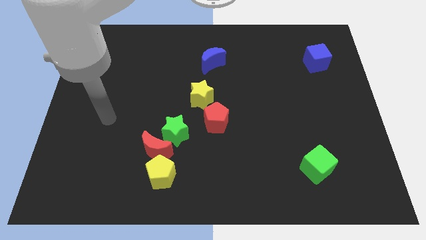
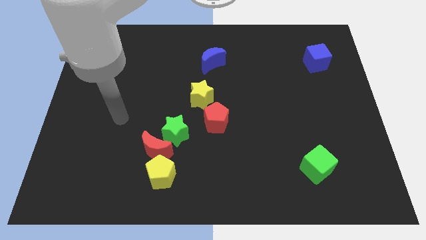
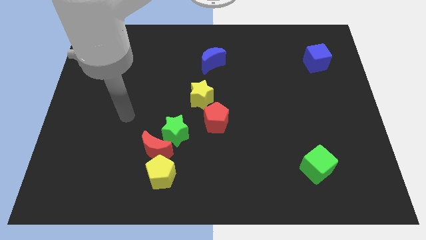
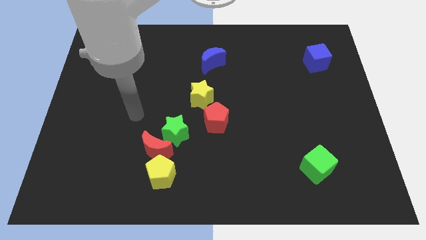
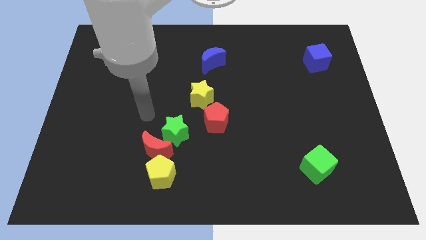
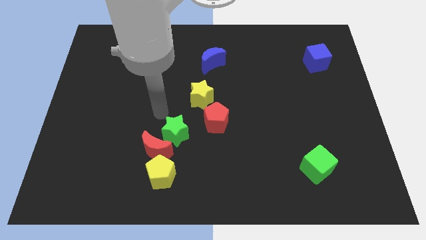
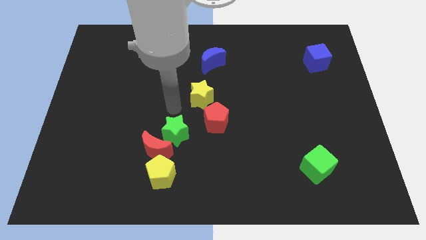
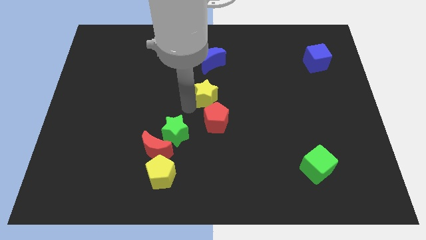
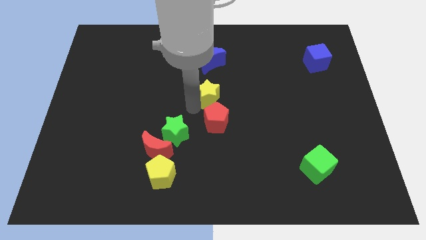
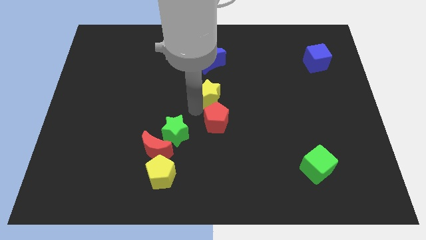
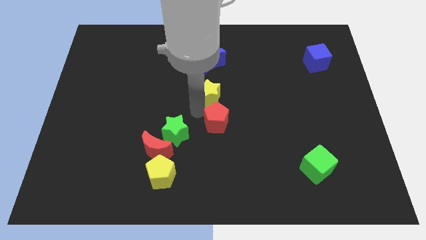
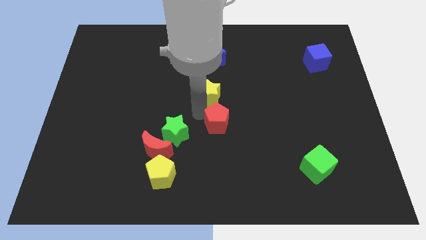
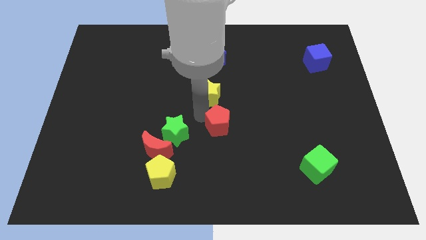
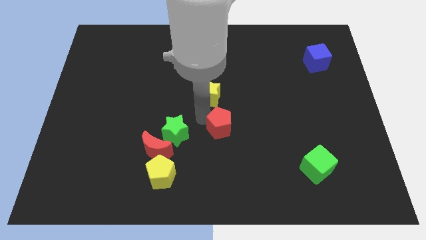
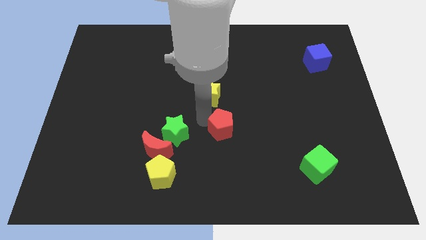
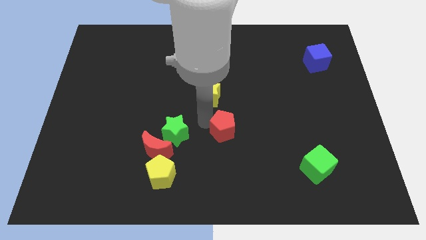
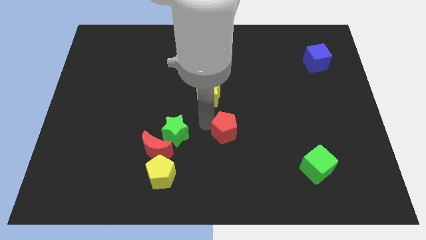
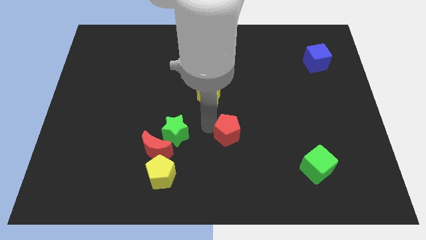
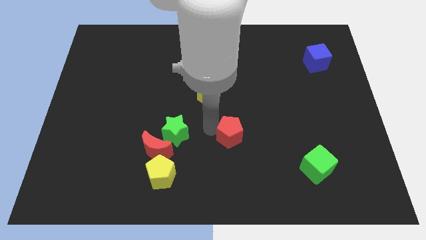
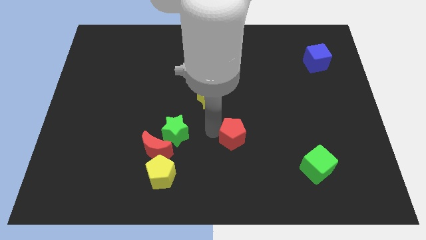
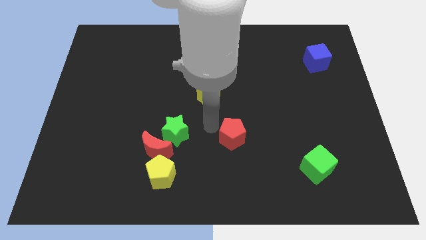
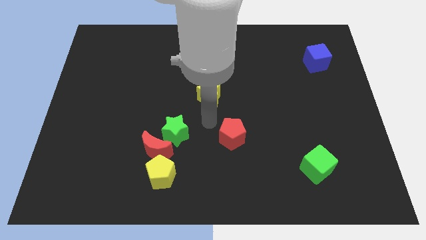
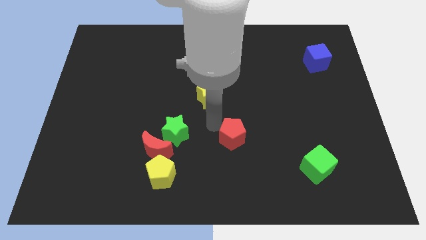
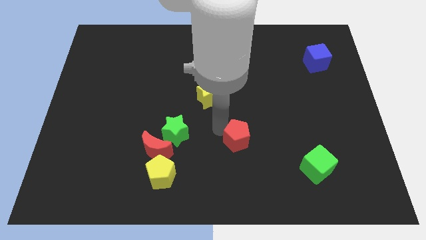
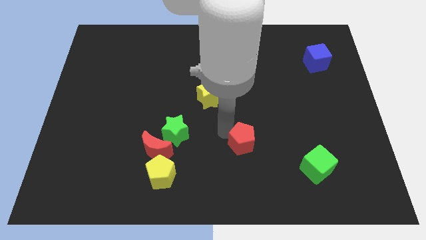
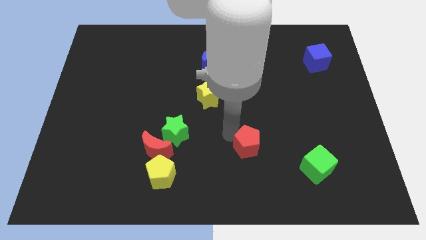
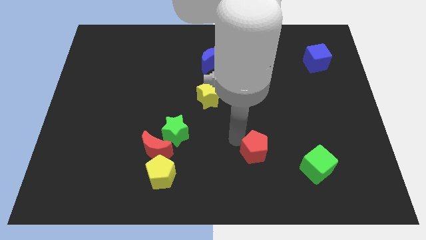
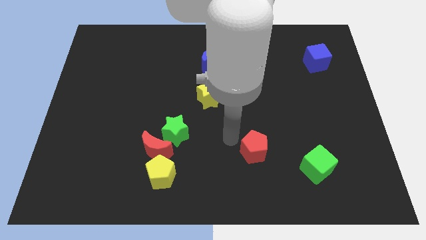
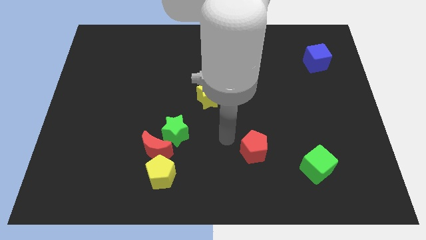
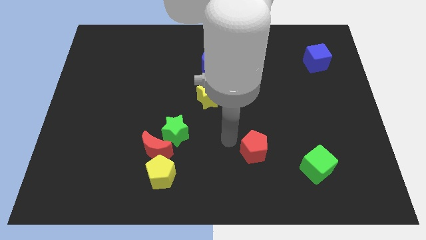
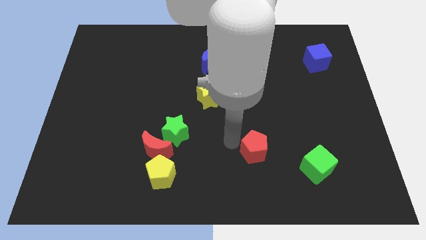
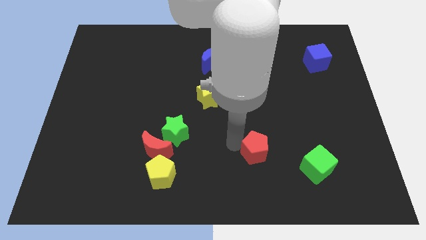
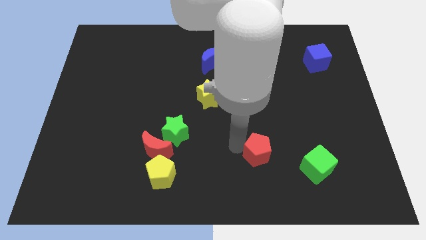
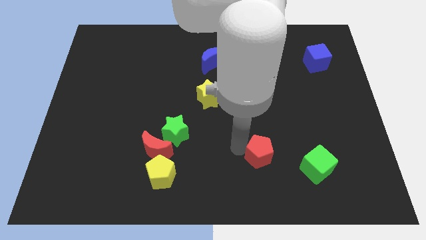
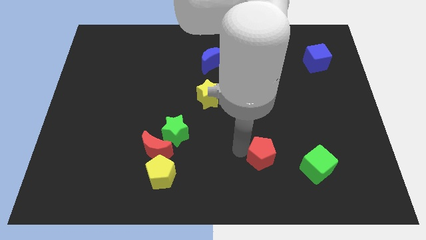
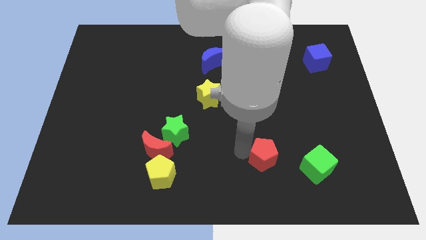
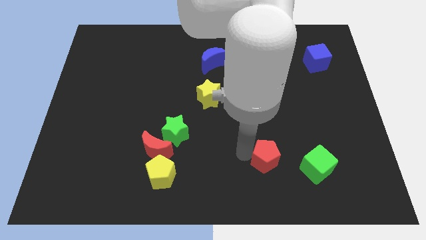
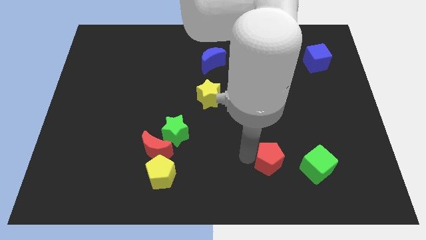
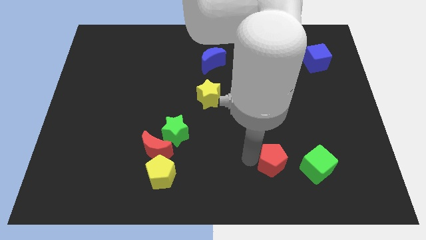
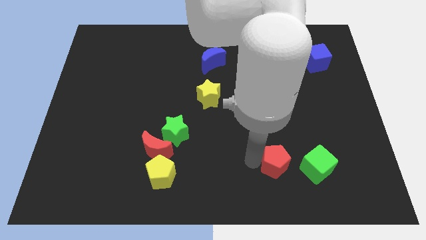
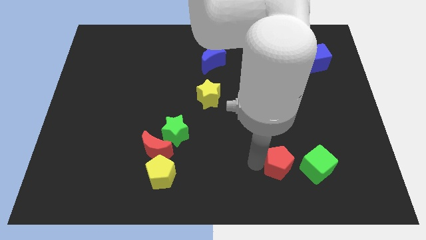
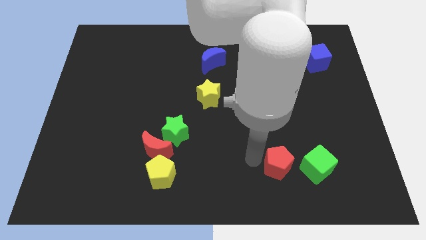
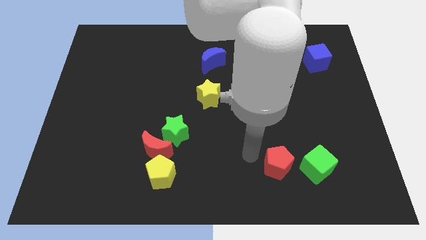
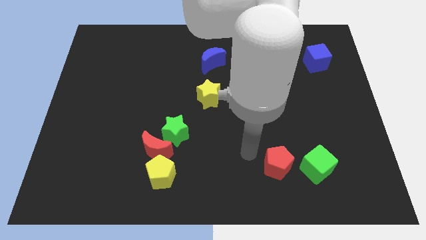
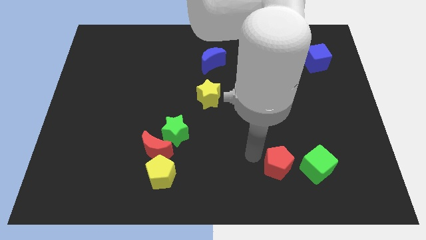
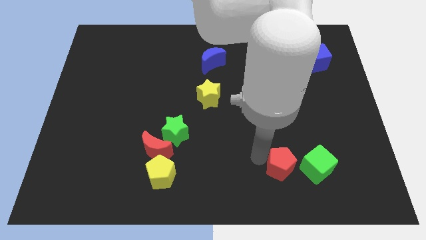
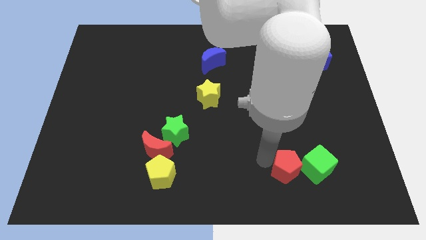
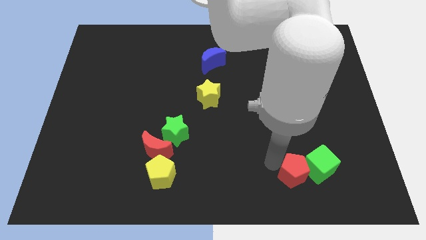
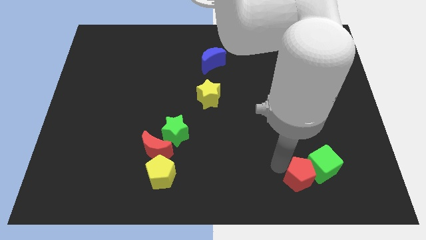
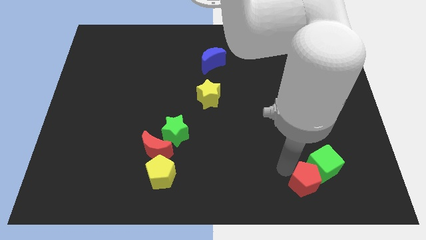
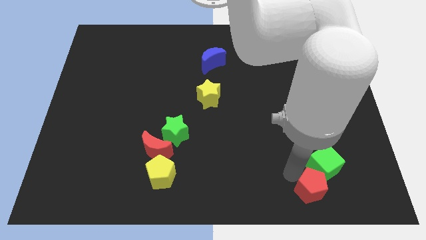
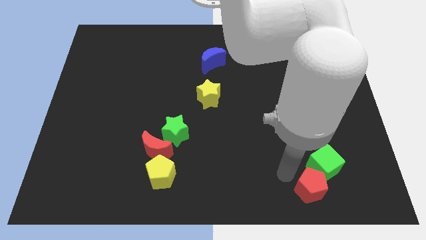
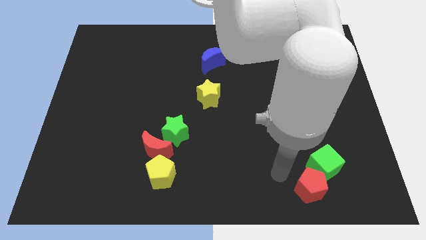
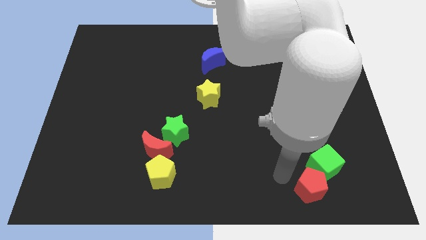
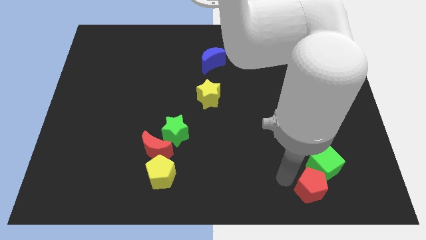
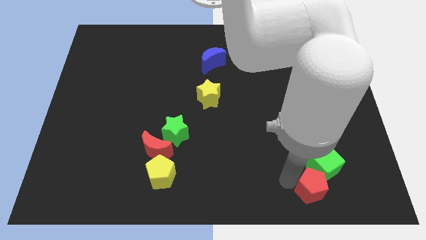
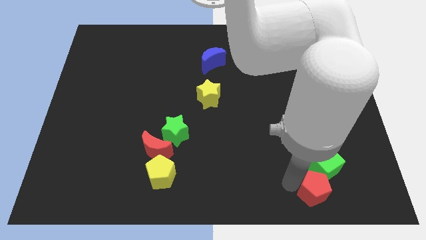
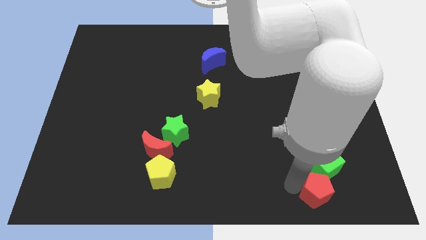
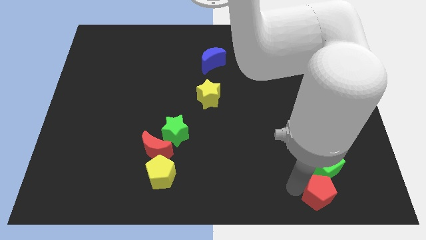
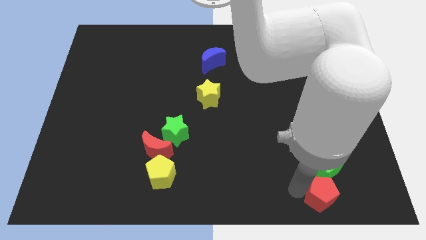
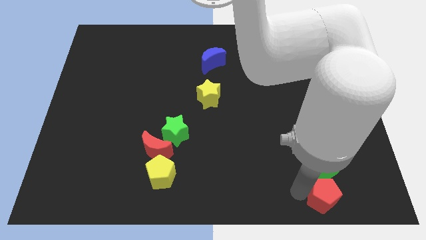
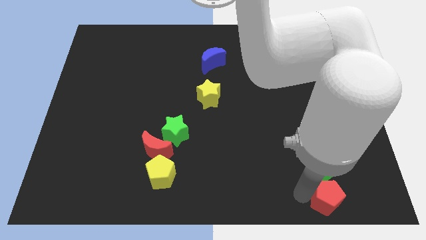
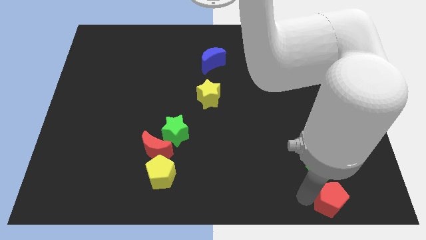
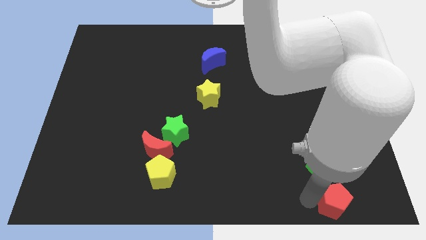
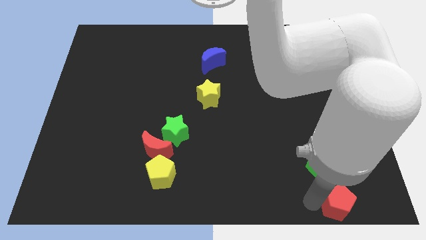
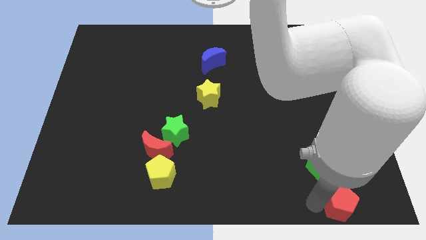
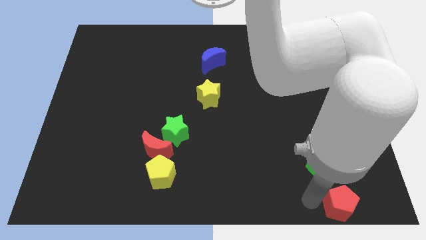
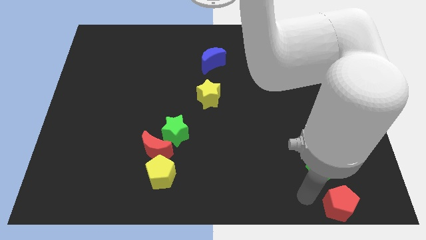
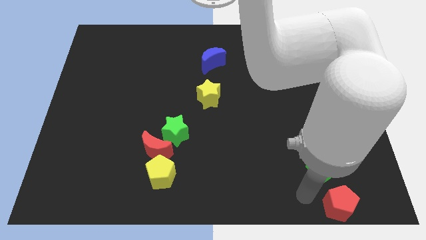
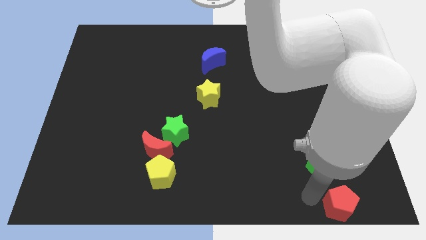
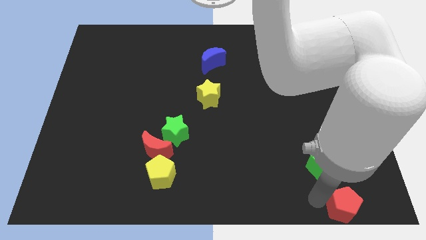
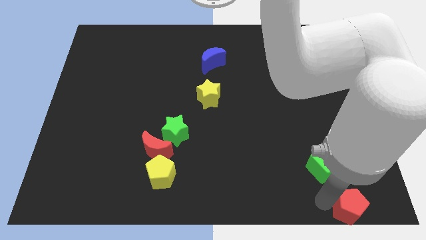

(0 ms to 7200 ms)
push the red pentagon to the bottom right corner

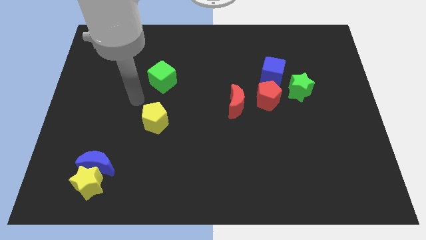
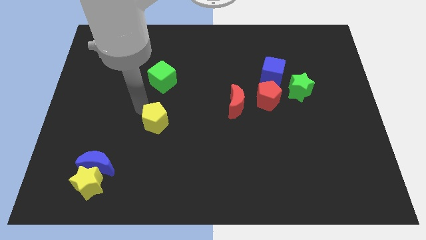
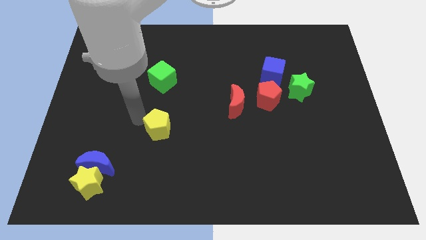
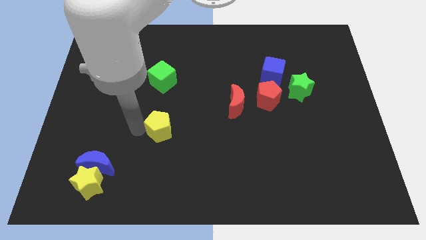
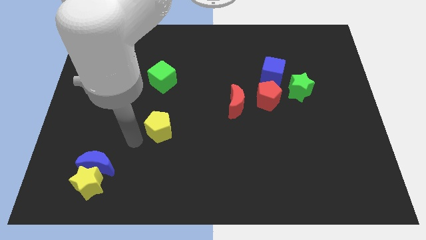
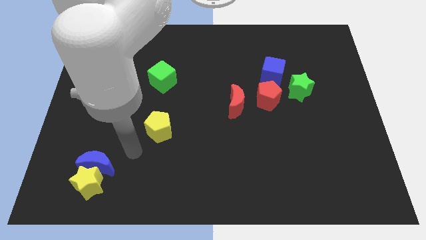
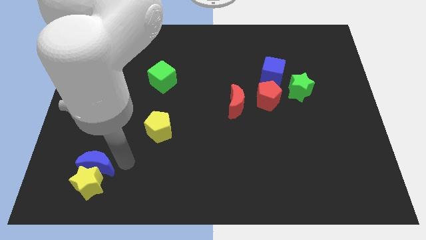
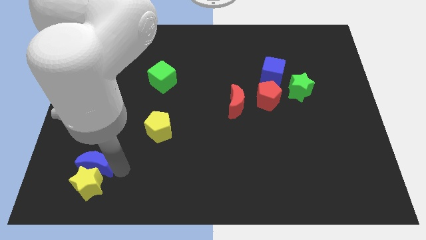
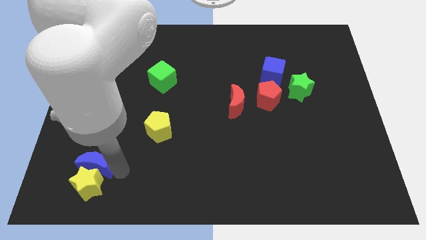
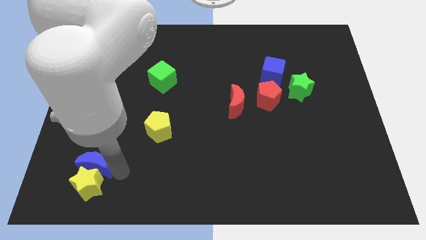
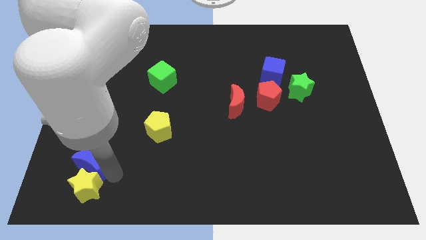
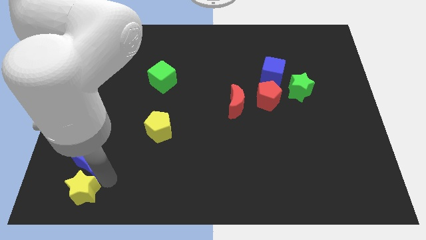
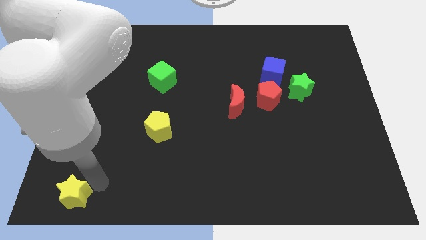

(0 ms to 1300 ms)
push the yellow star to the lower left corner
